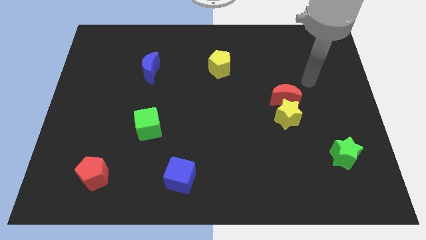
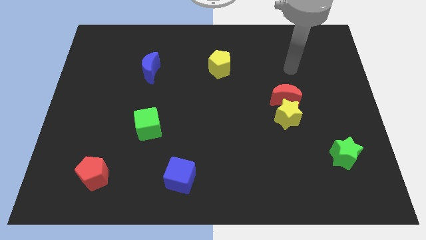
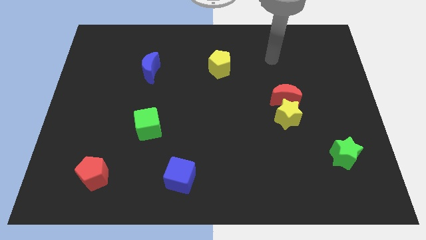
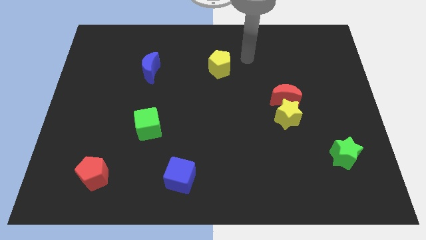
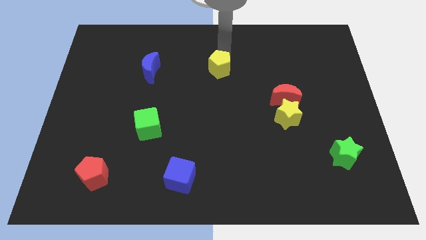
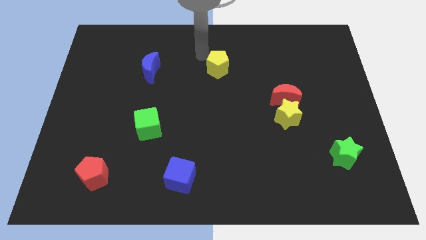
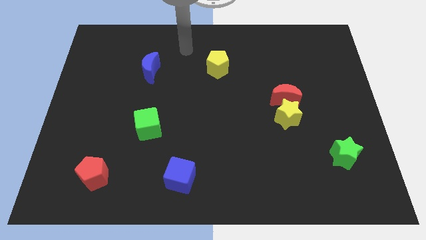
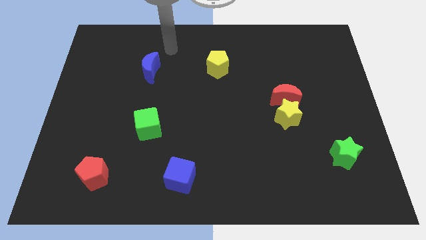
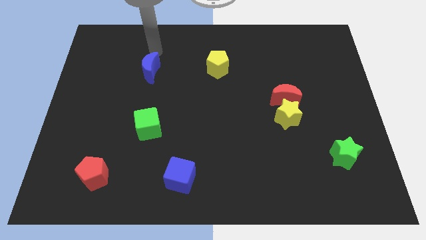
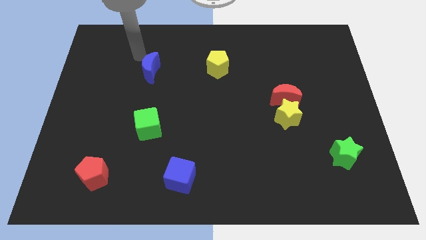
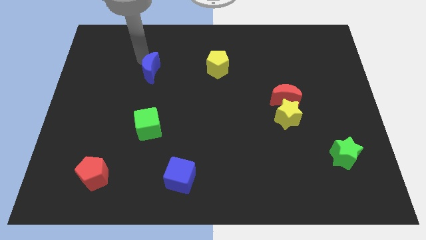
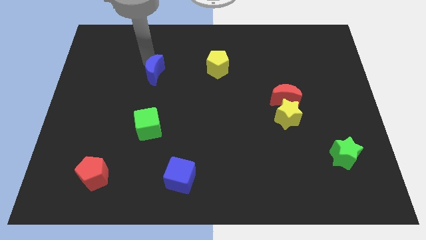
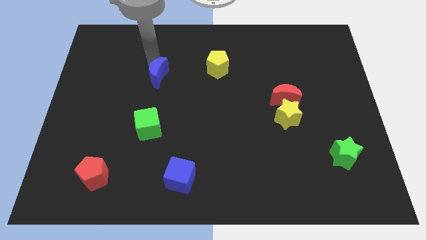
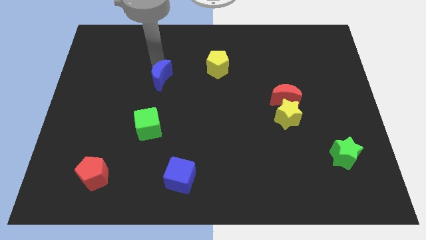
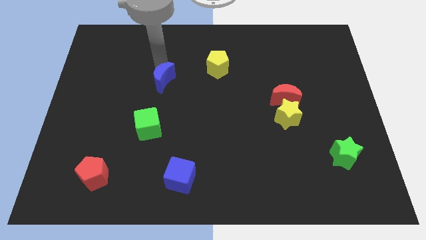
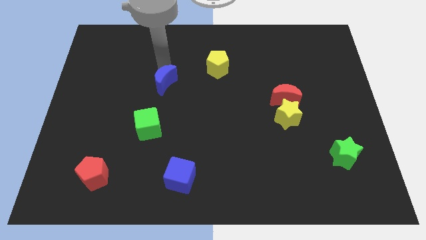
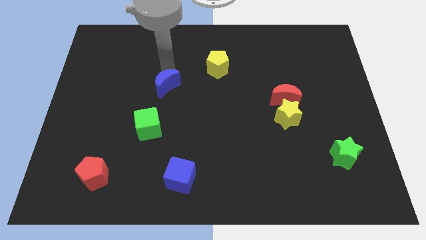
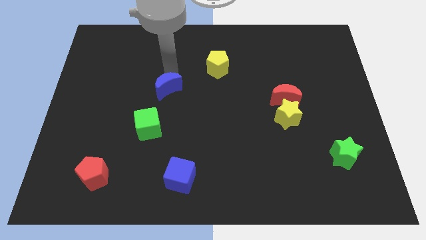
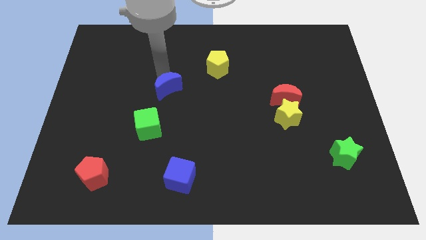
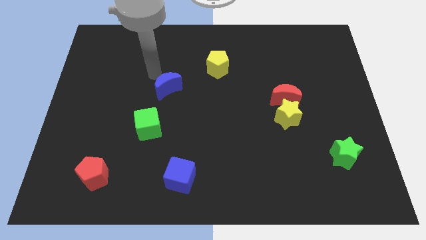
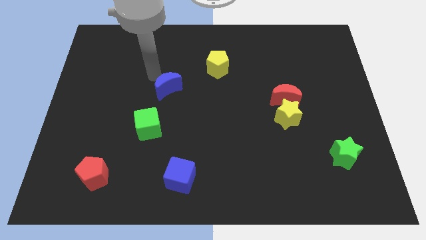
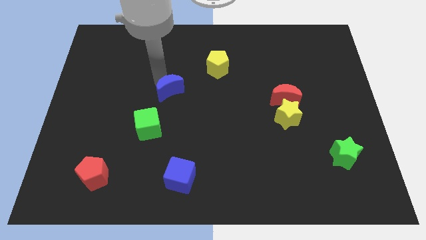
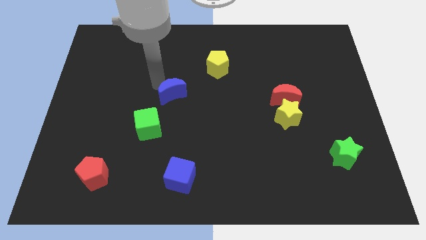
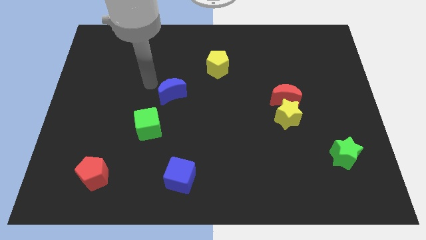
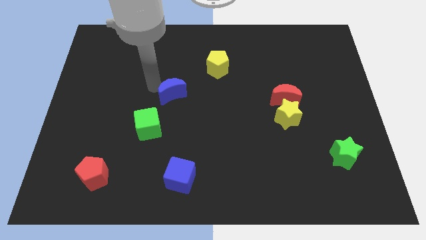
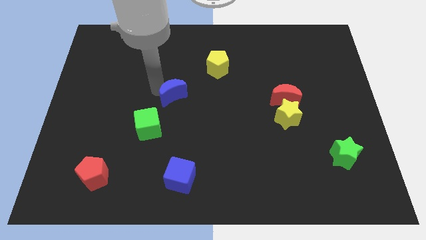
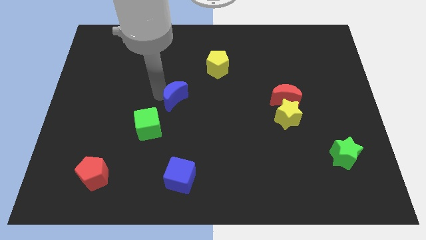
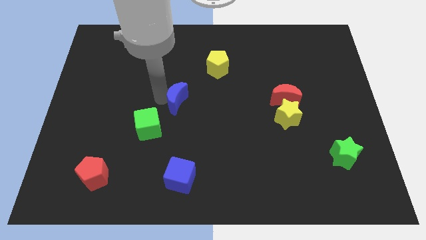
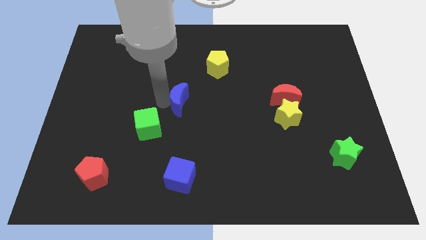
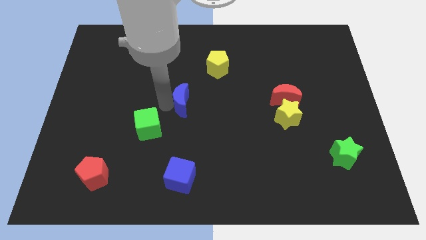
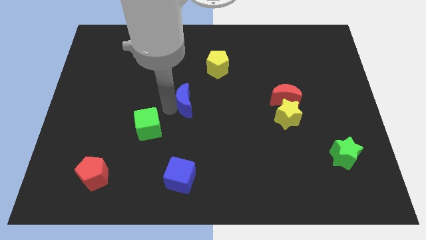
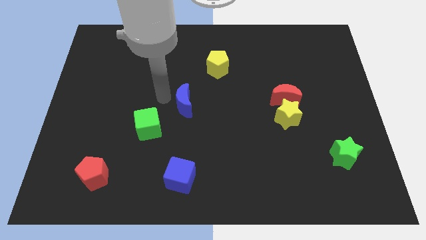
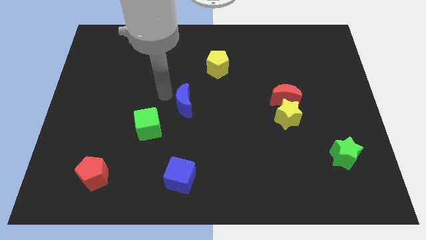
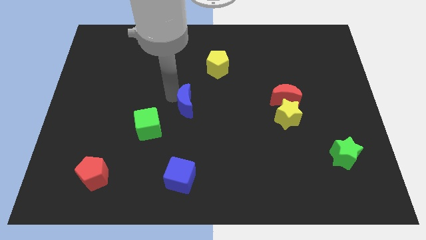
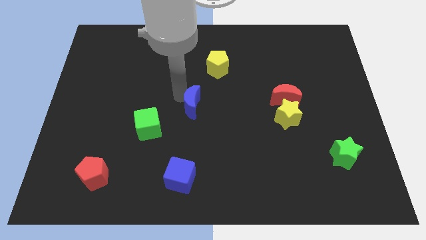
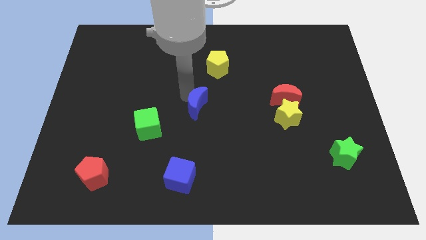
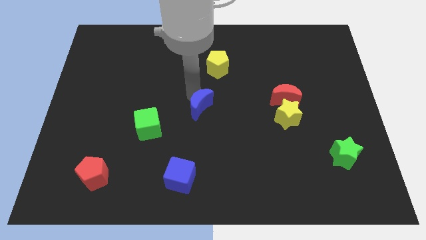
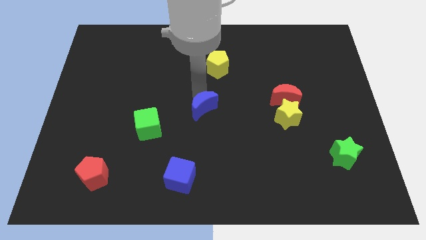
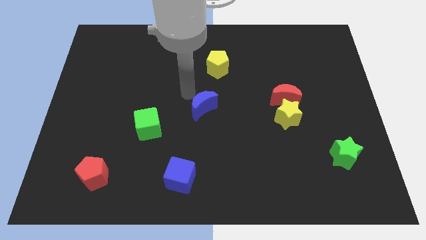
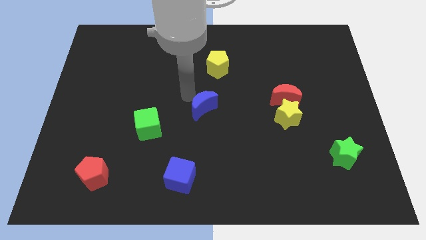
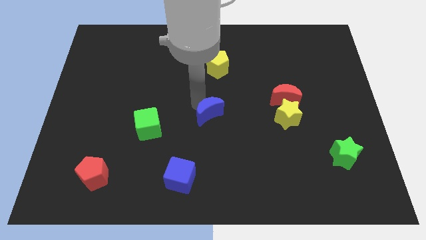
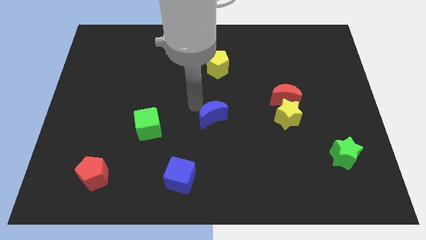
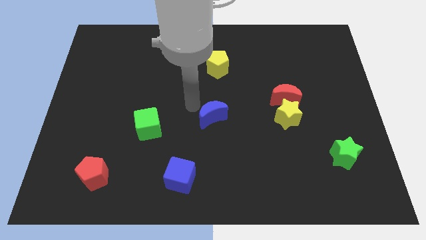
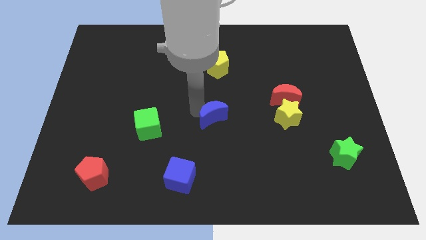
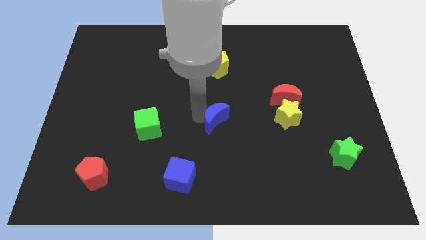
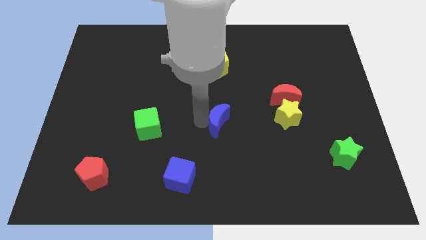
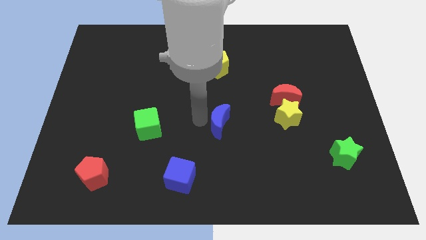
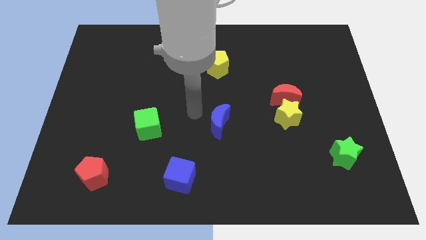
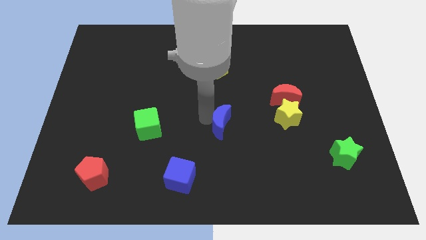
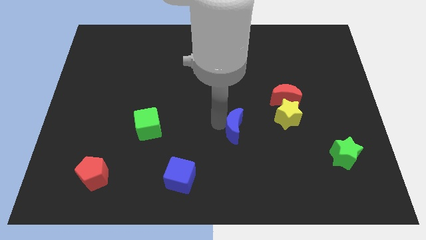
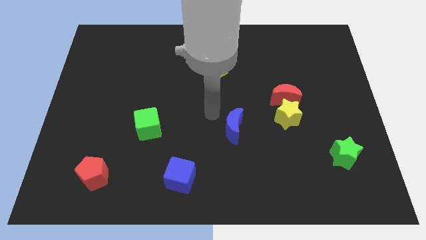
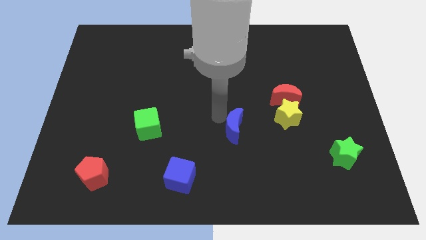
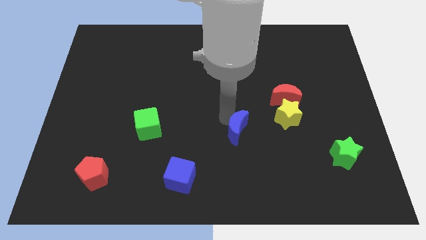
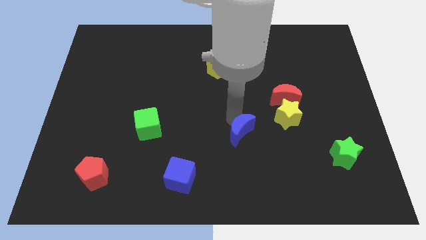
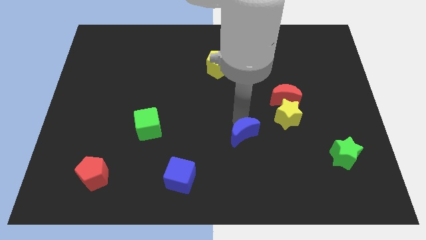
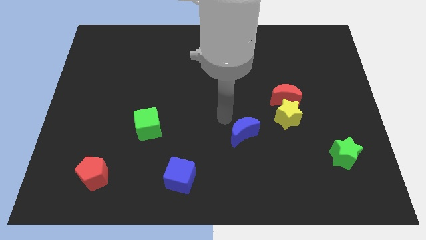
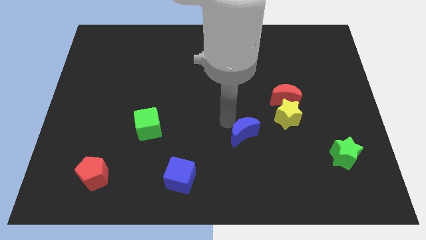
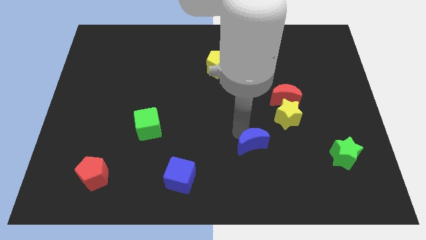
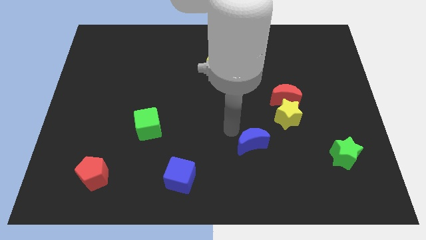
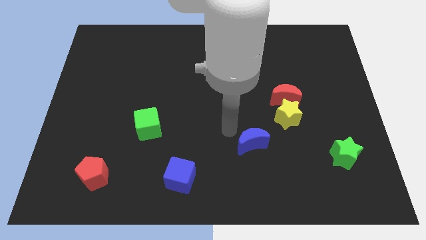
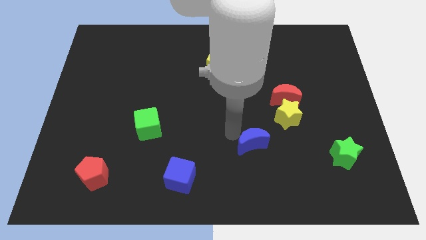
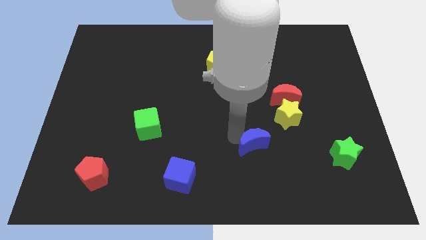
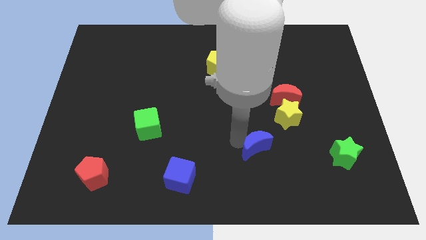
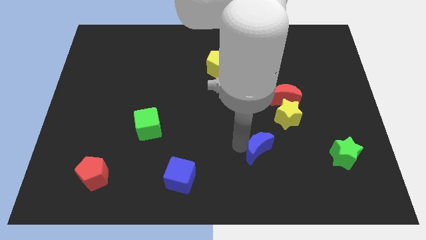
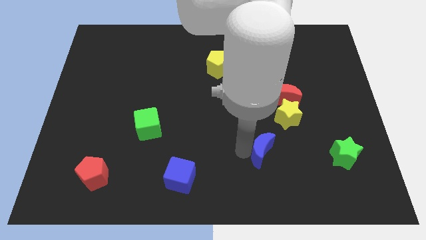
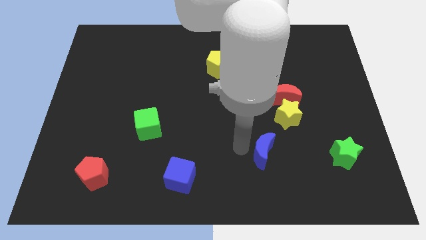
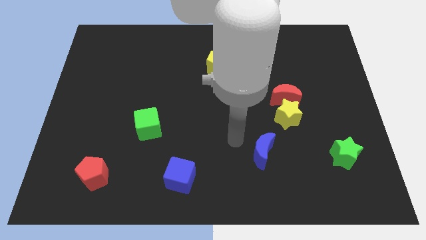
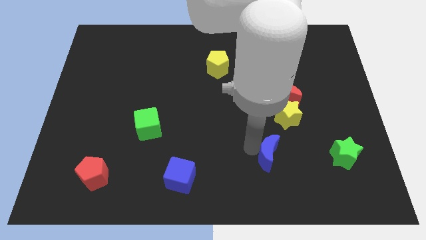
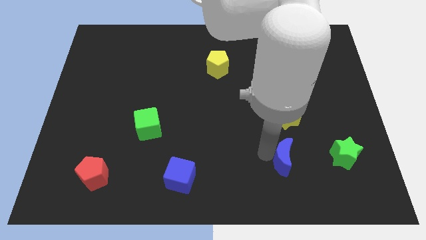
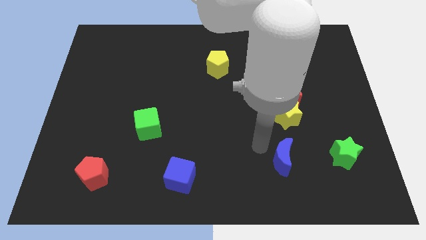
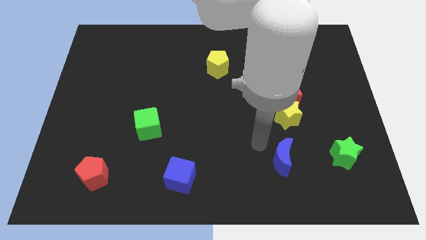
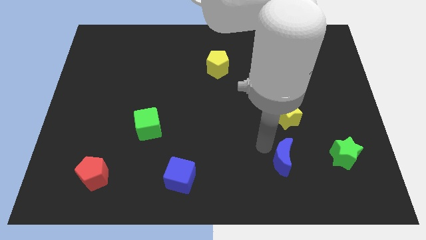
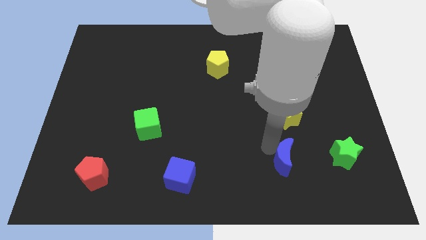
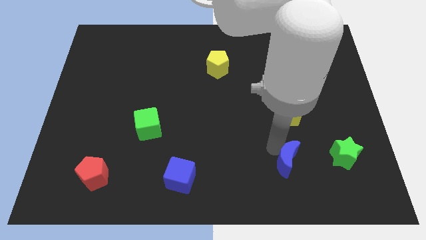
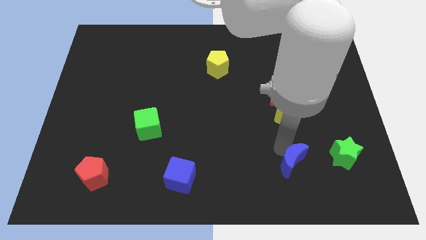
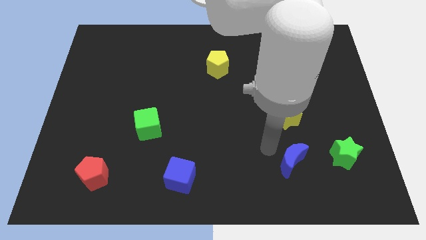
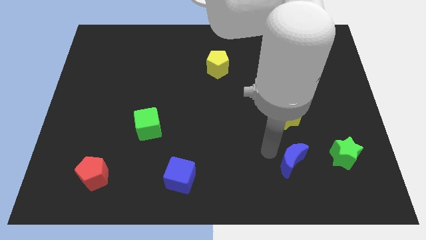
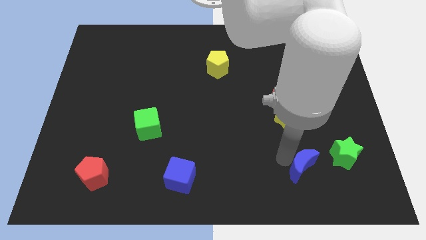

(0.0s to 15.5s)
put the blue moon diagonally down and to the left of the green star

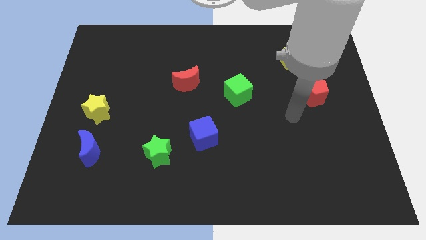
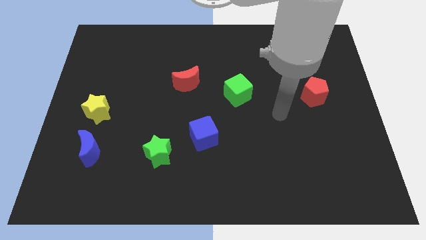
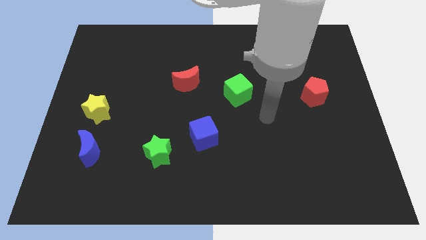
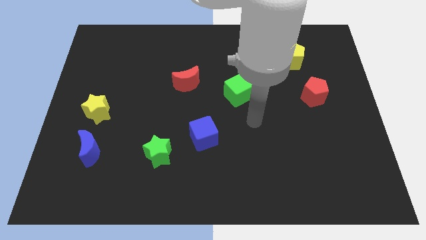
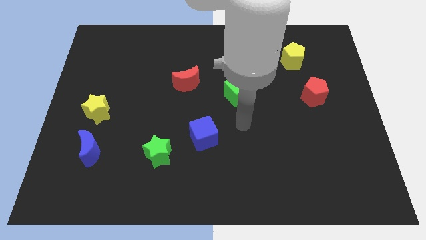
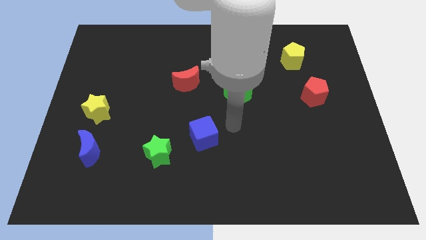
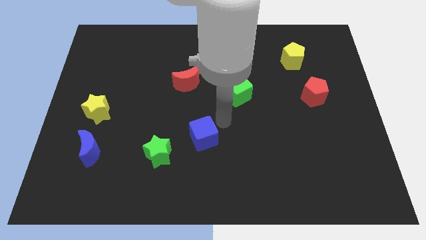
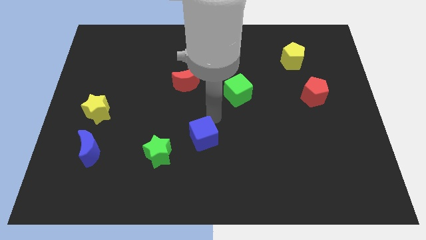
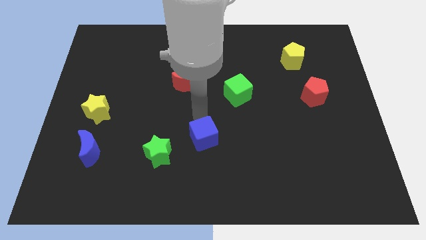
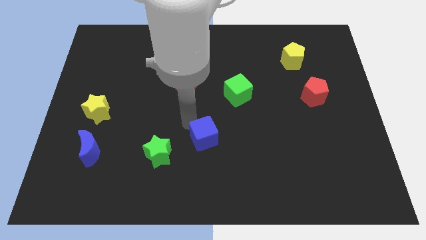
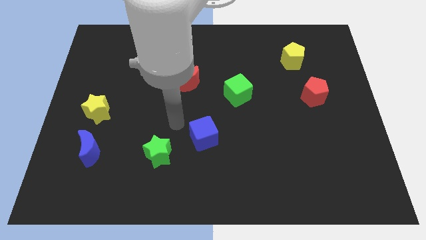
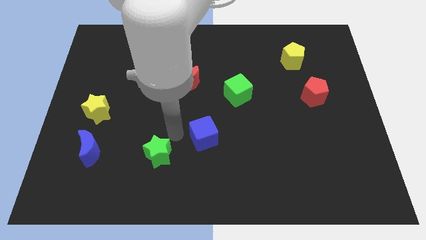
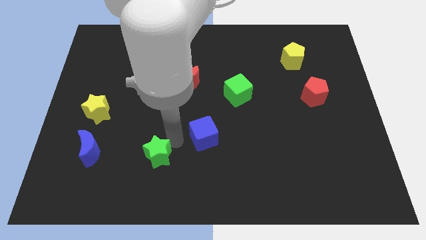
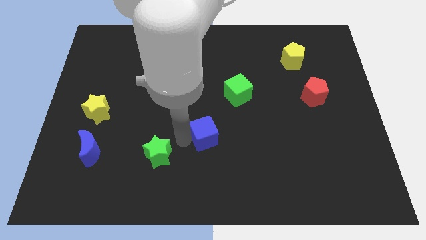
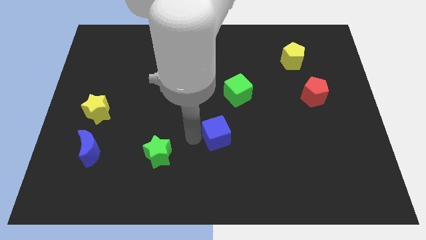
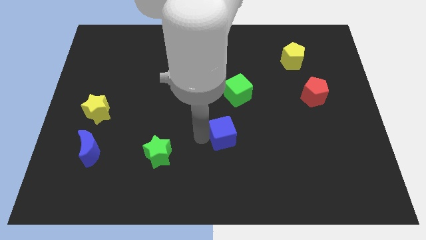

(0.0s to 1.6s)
put the blue cube below the green cube
